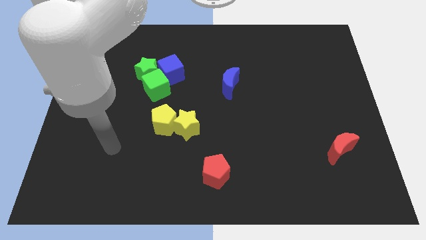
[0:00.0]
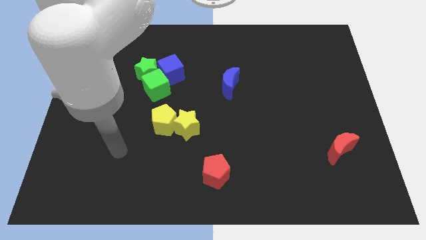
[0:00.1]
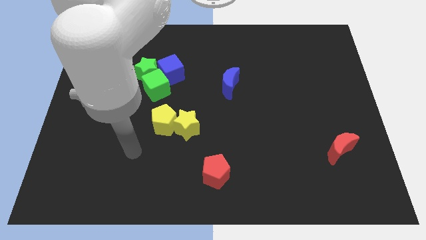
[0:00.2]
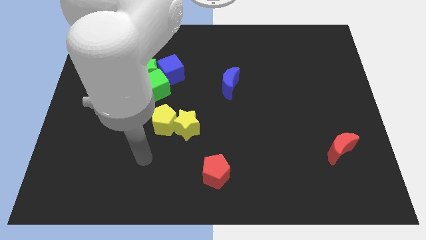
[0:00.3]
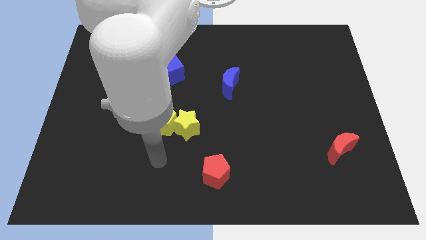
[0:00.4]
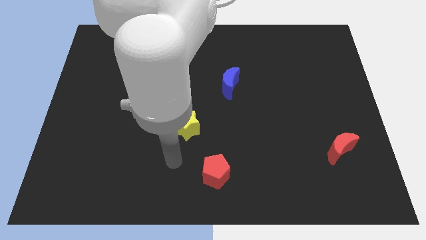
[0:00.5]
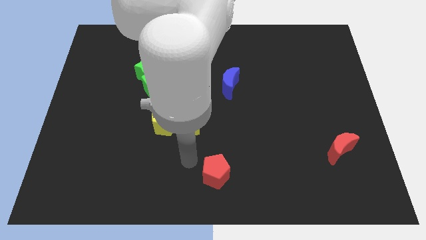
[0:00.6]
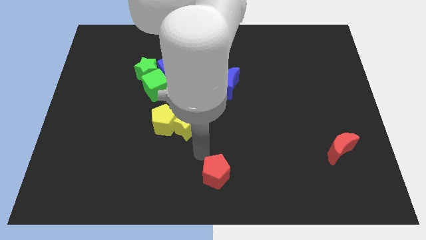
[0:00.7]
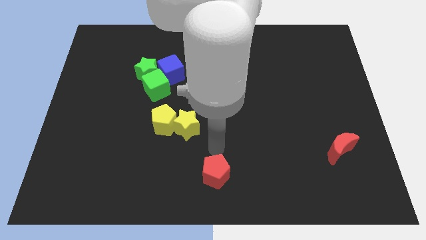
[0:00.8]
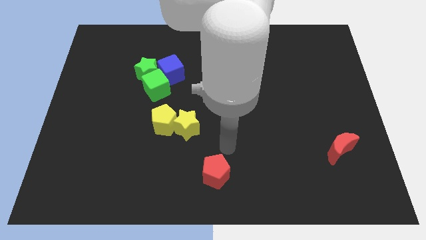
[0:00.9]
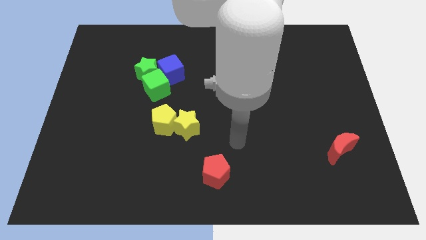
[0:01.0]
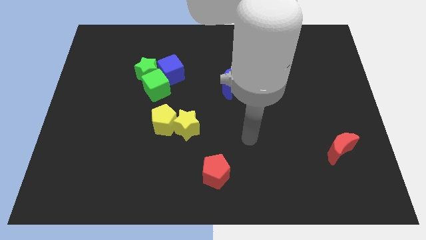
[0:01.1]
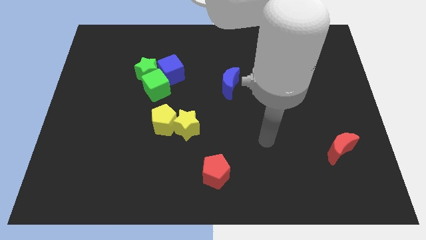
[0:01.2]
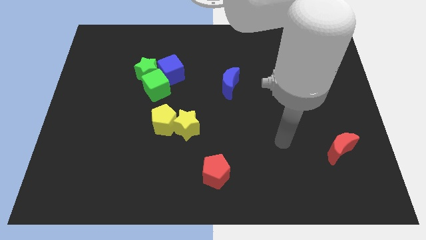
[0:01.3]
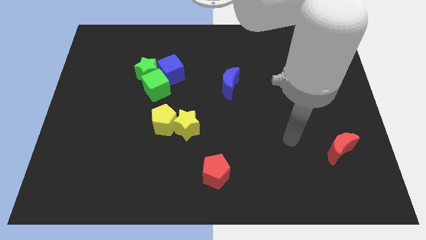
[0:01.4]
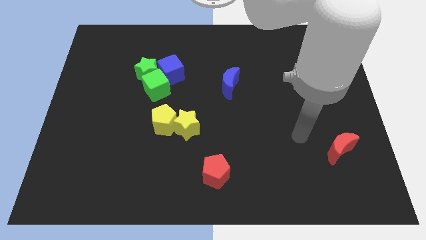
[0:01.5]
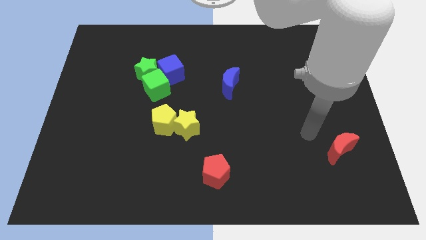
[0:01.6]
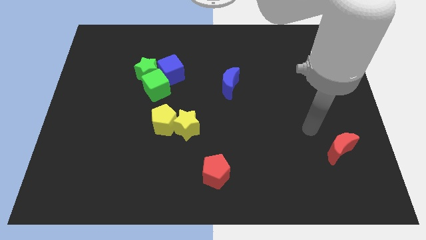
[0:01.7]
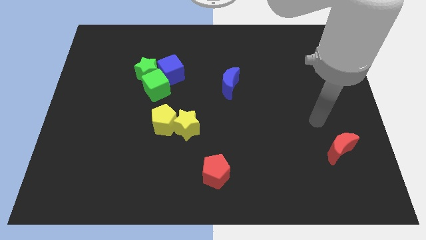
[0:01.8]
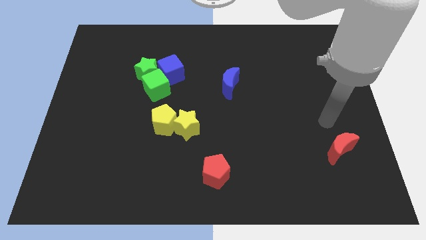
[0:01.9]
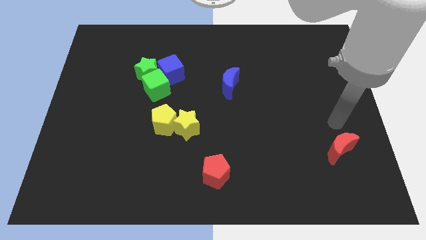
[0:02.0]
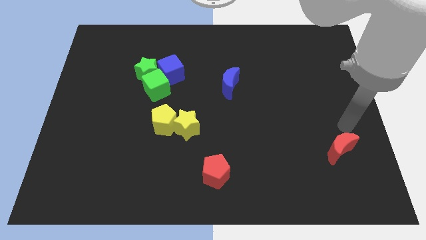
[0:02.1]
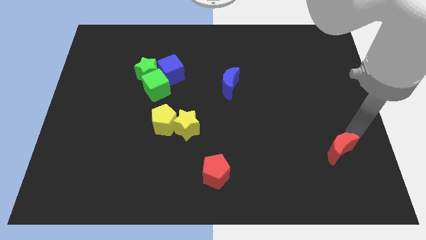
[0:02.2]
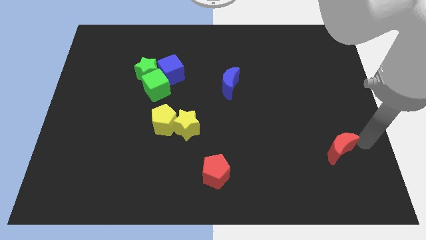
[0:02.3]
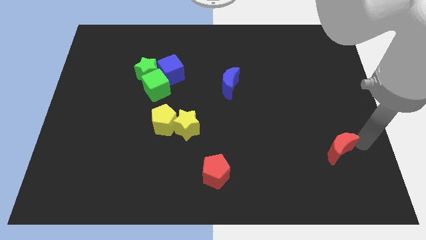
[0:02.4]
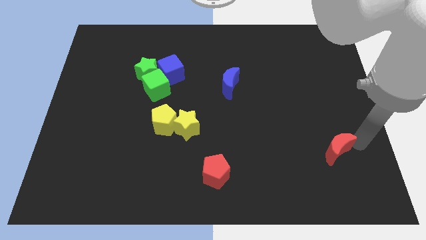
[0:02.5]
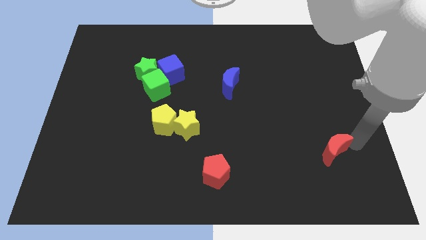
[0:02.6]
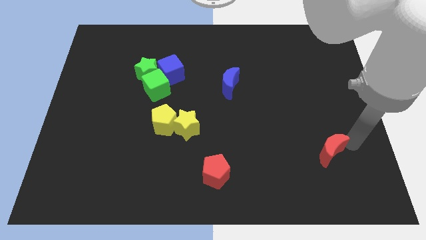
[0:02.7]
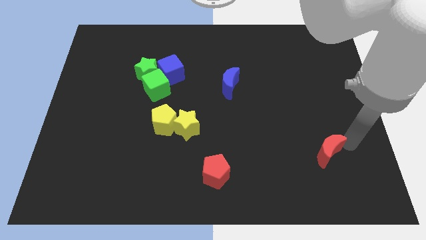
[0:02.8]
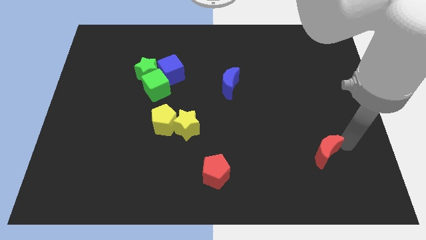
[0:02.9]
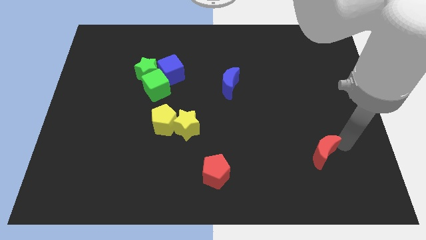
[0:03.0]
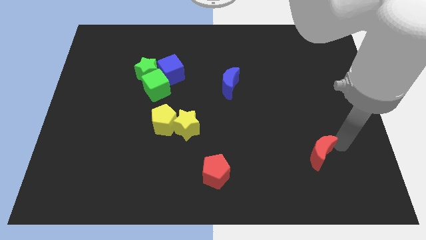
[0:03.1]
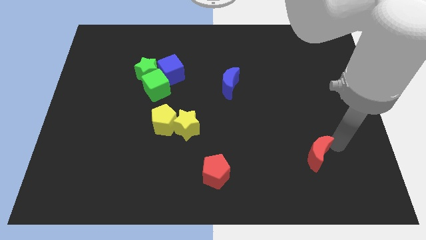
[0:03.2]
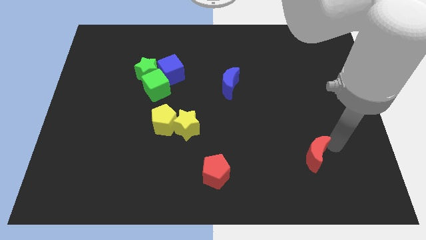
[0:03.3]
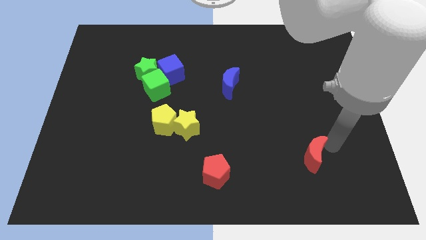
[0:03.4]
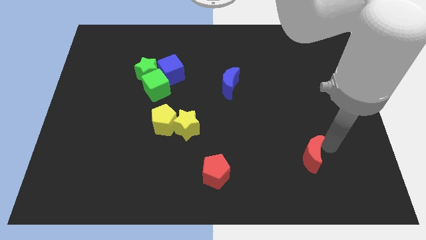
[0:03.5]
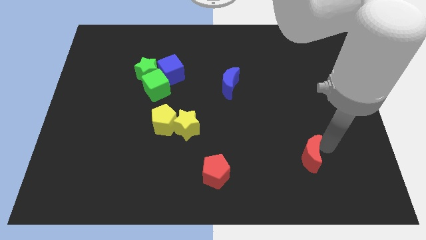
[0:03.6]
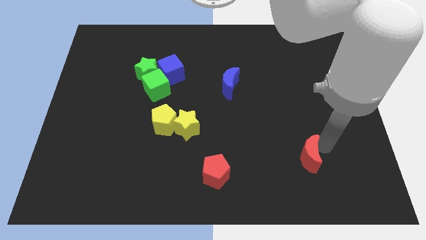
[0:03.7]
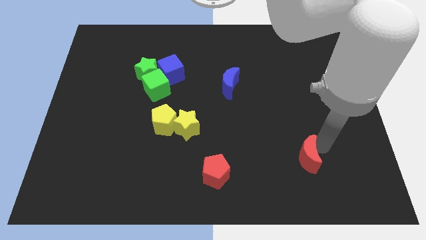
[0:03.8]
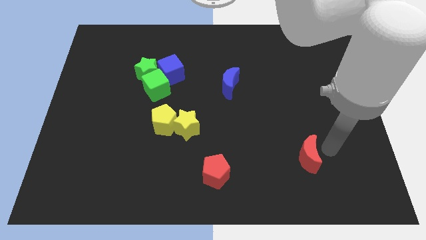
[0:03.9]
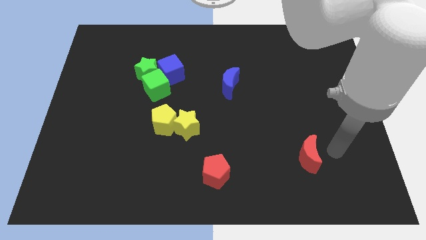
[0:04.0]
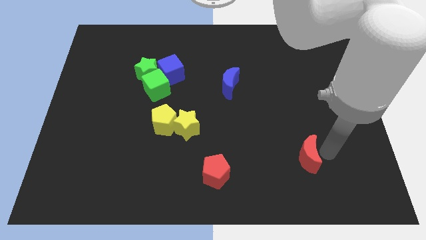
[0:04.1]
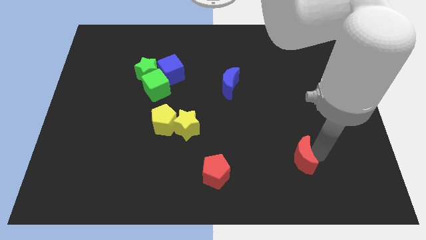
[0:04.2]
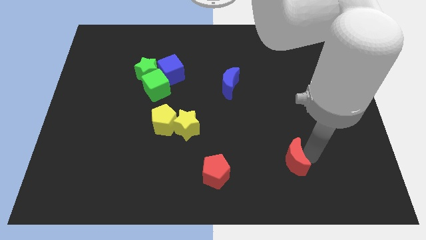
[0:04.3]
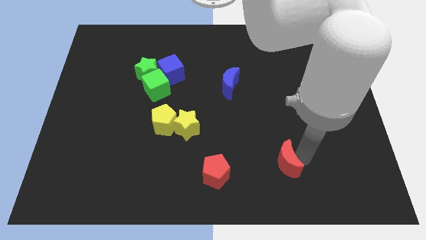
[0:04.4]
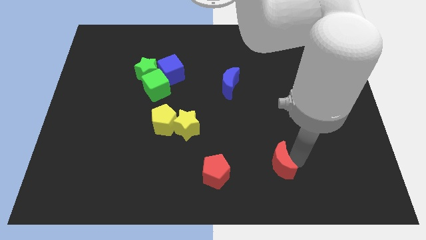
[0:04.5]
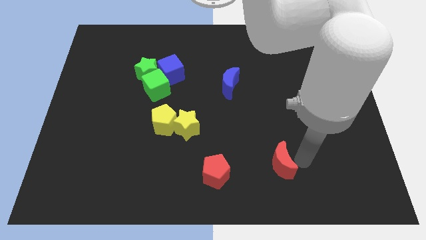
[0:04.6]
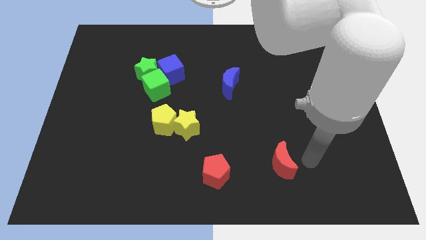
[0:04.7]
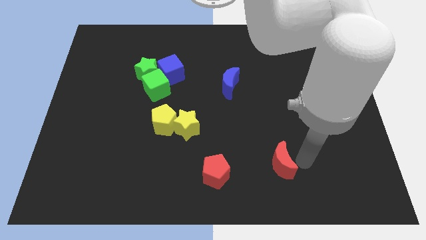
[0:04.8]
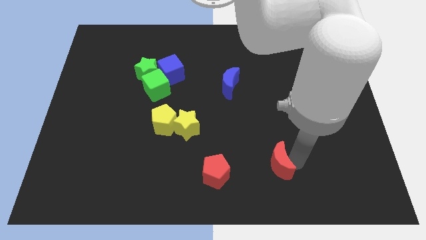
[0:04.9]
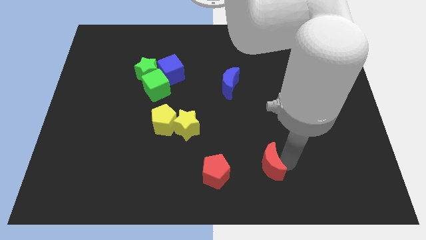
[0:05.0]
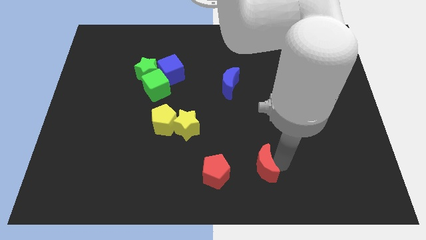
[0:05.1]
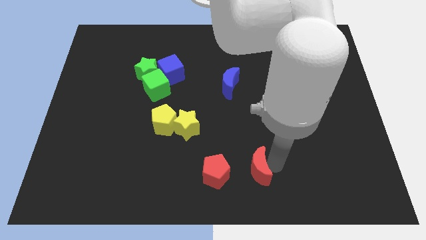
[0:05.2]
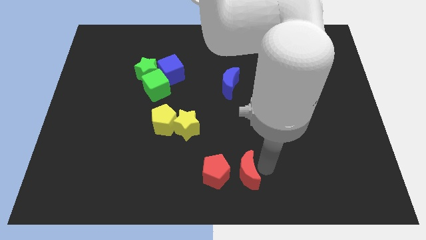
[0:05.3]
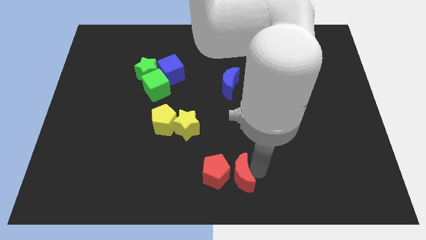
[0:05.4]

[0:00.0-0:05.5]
move the red moon towards the red pentagon

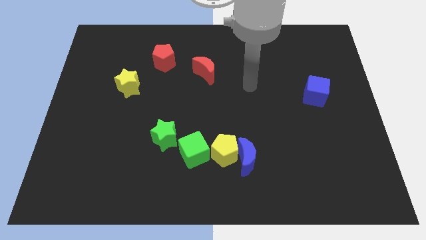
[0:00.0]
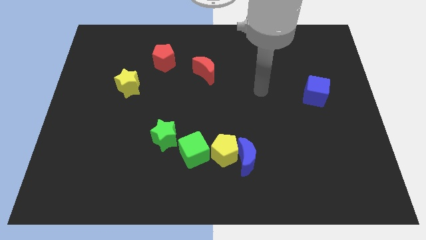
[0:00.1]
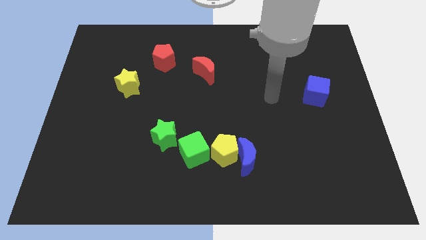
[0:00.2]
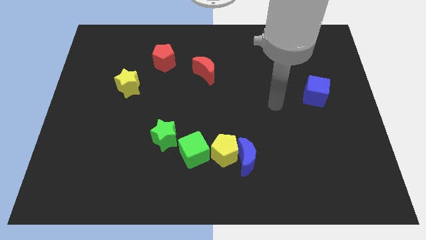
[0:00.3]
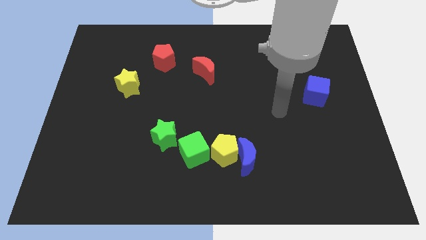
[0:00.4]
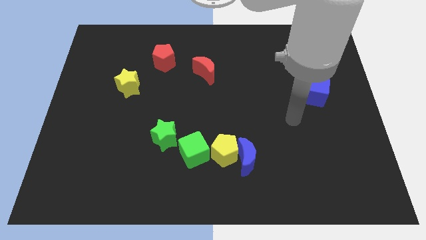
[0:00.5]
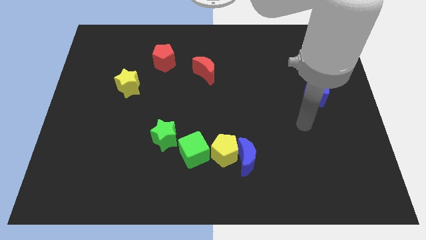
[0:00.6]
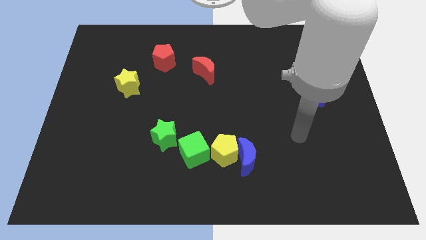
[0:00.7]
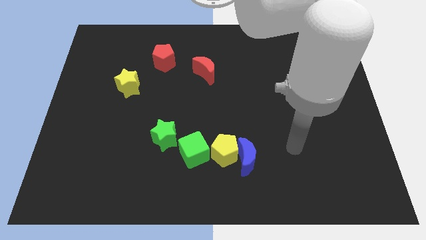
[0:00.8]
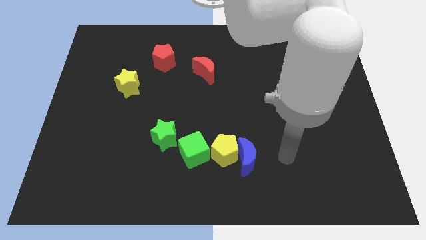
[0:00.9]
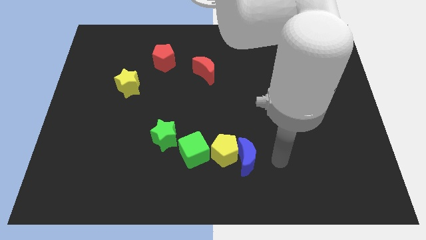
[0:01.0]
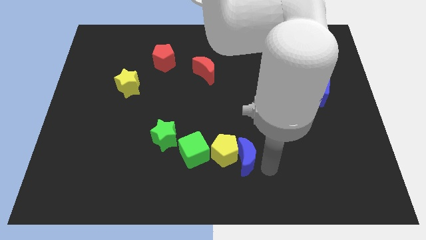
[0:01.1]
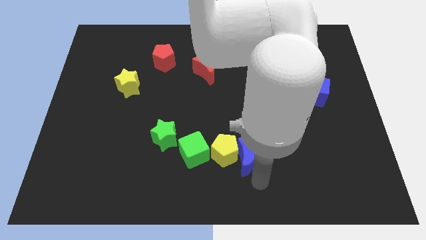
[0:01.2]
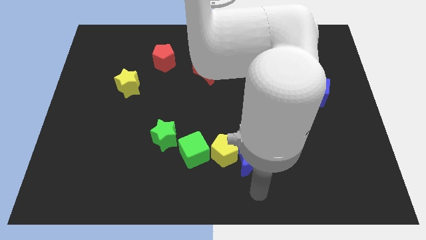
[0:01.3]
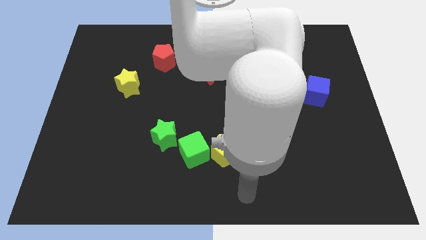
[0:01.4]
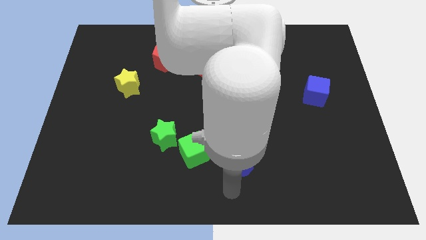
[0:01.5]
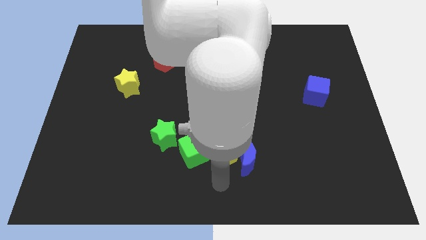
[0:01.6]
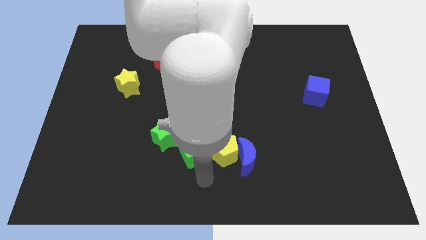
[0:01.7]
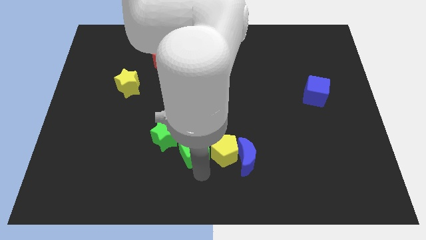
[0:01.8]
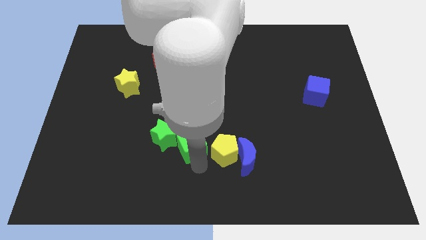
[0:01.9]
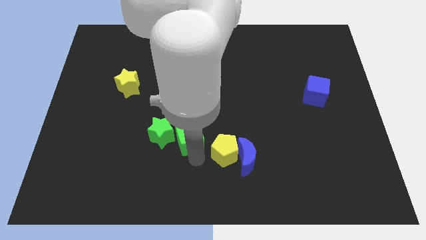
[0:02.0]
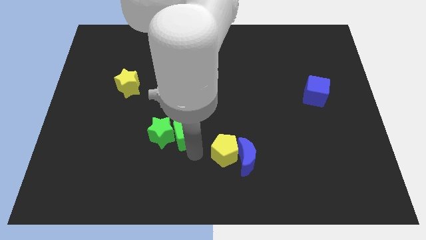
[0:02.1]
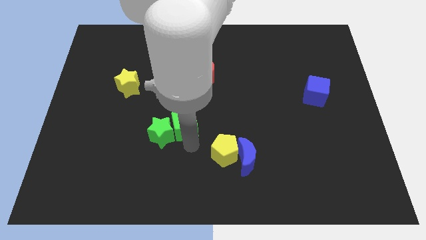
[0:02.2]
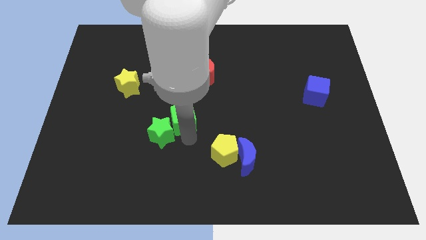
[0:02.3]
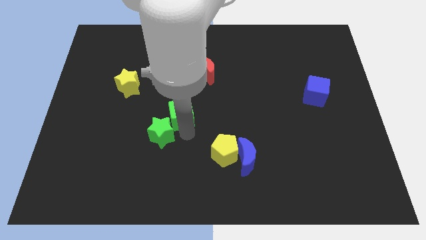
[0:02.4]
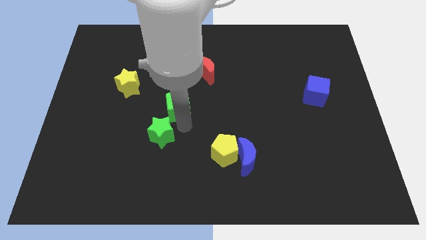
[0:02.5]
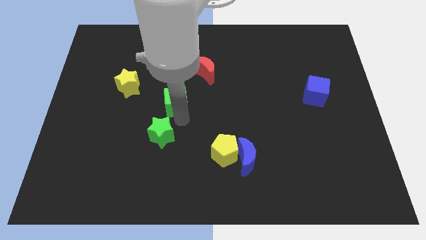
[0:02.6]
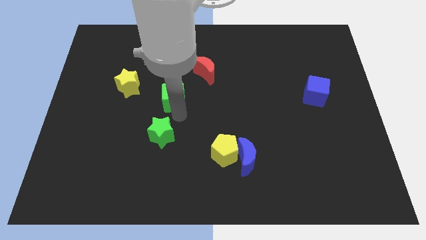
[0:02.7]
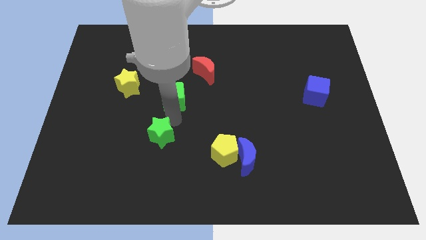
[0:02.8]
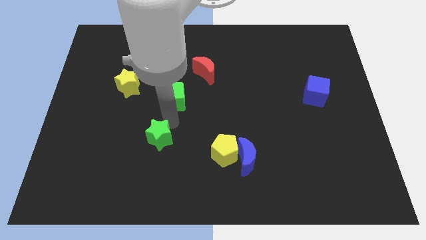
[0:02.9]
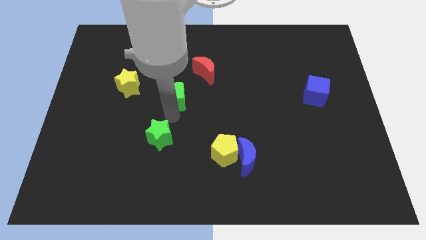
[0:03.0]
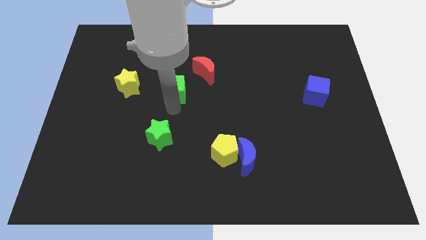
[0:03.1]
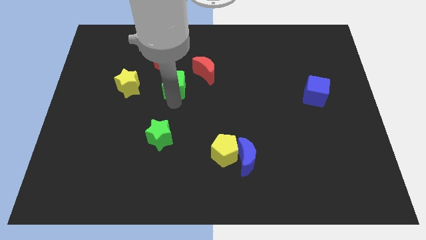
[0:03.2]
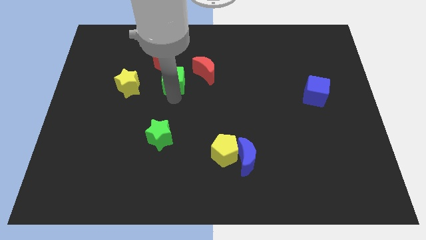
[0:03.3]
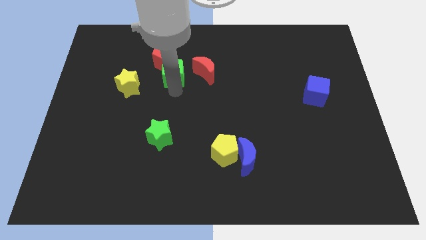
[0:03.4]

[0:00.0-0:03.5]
push the green cube to the red pentagon
